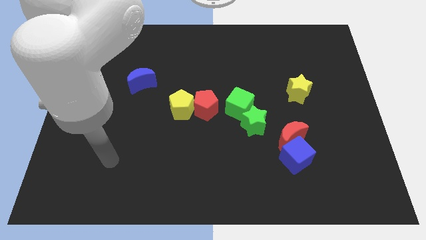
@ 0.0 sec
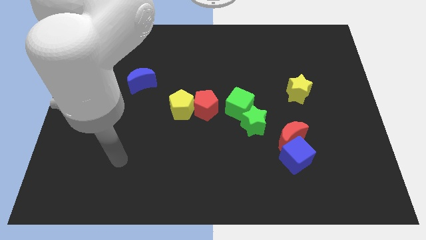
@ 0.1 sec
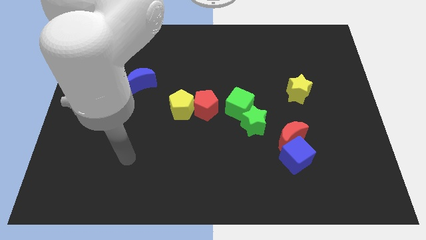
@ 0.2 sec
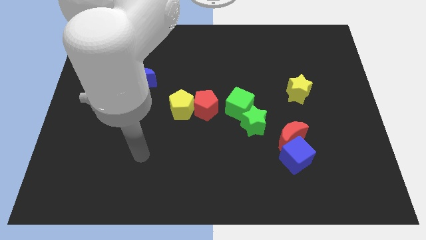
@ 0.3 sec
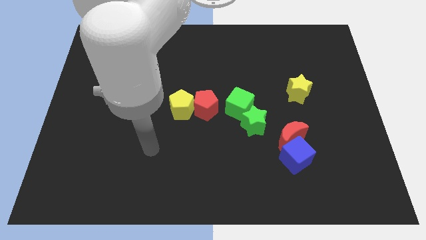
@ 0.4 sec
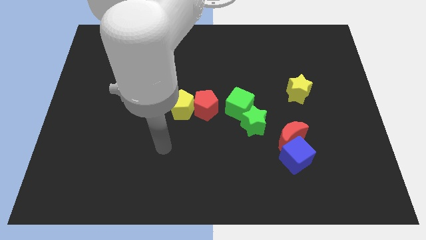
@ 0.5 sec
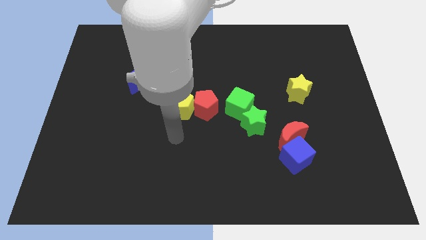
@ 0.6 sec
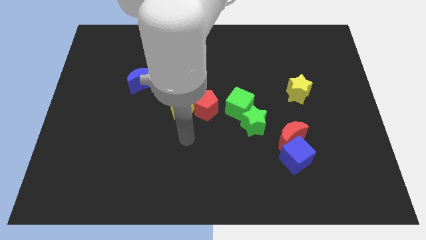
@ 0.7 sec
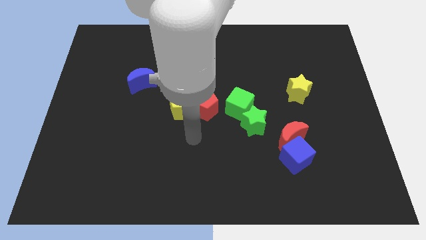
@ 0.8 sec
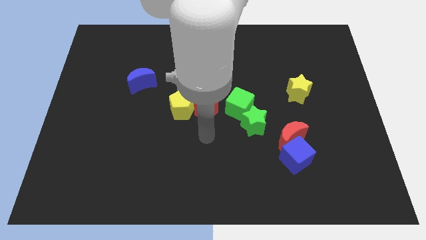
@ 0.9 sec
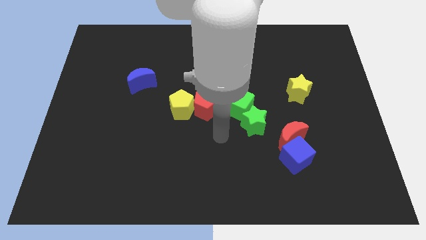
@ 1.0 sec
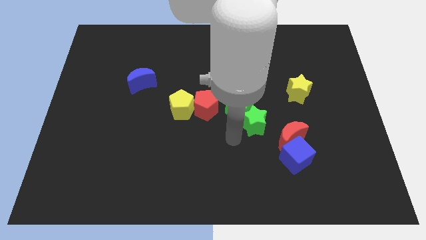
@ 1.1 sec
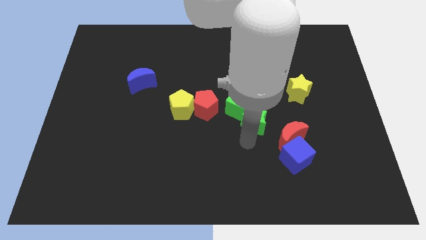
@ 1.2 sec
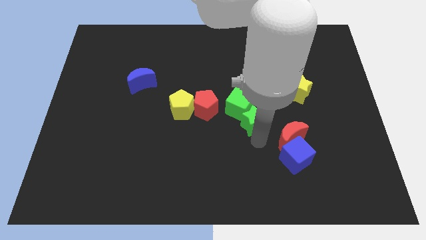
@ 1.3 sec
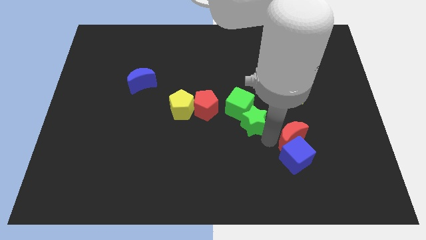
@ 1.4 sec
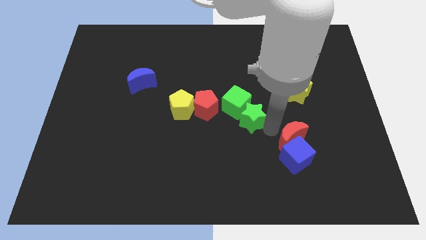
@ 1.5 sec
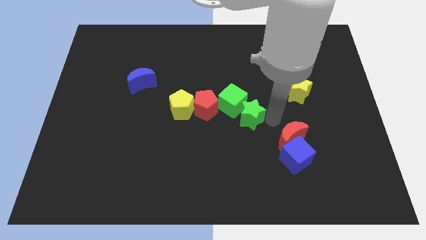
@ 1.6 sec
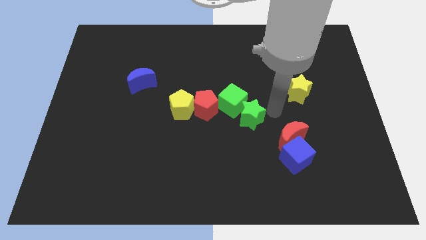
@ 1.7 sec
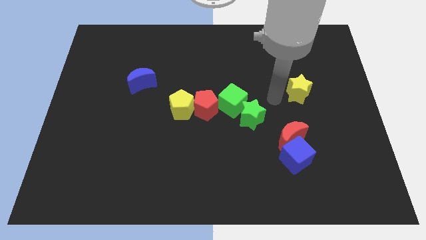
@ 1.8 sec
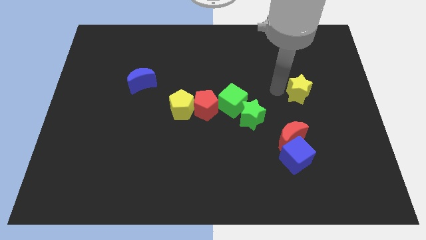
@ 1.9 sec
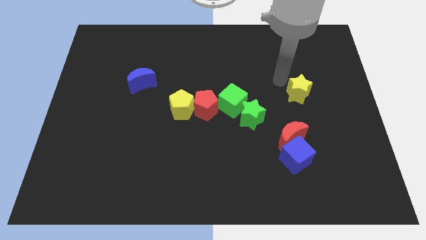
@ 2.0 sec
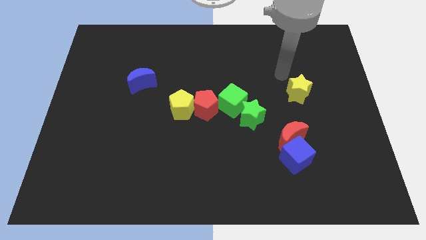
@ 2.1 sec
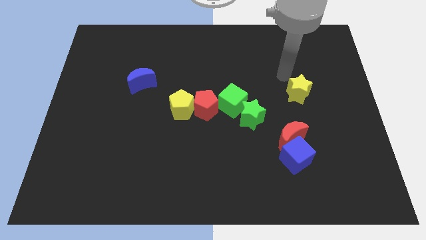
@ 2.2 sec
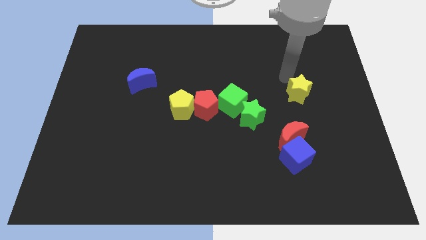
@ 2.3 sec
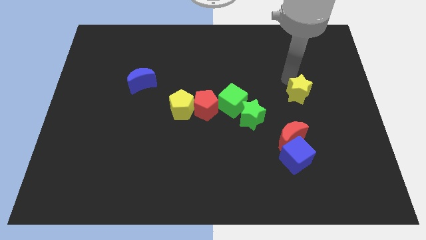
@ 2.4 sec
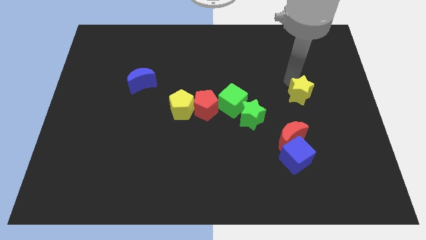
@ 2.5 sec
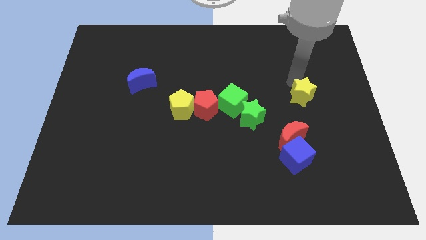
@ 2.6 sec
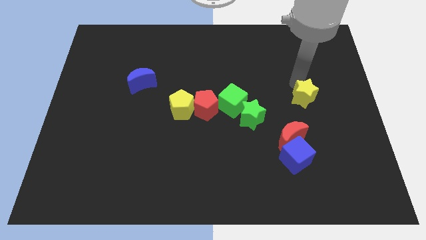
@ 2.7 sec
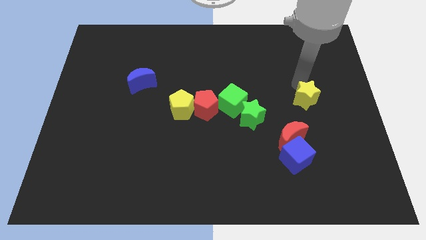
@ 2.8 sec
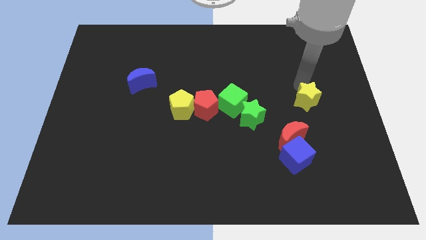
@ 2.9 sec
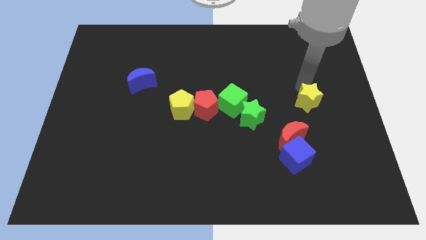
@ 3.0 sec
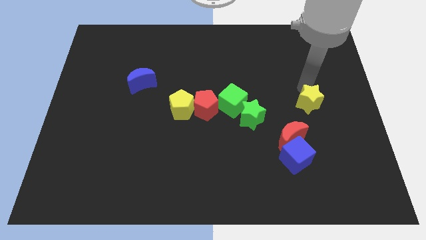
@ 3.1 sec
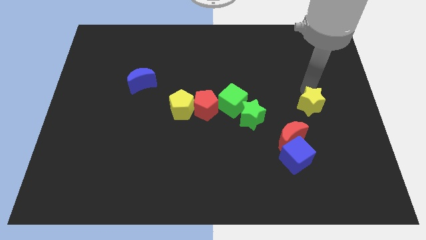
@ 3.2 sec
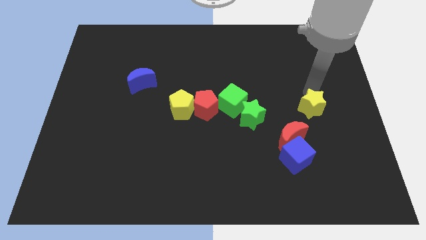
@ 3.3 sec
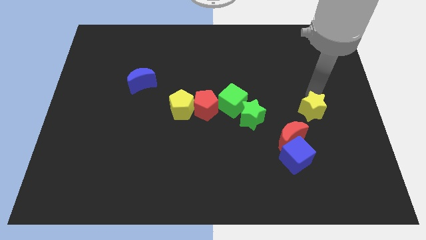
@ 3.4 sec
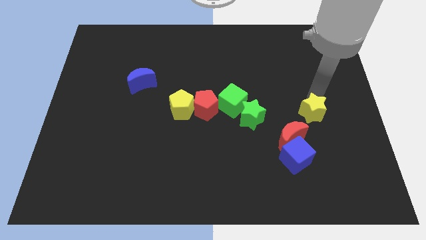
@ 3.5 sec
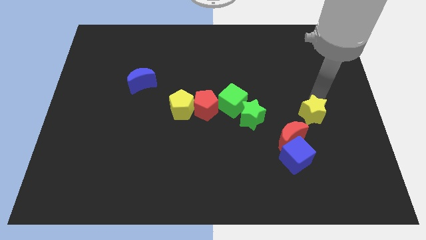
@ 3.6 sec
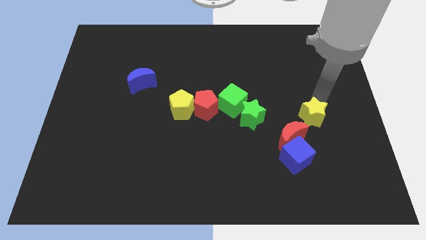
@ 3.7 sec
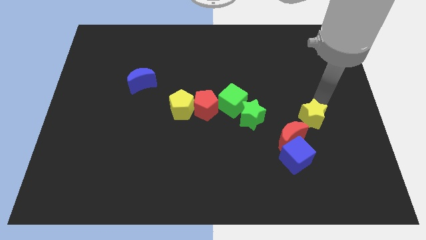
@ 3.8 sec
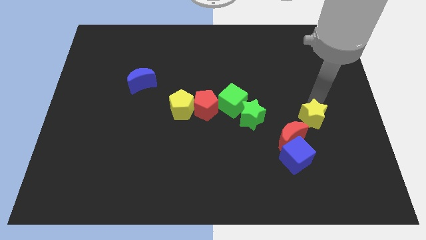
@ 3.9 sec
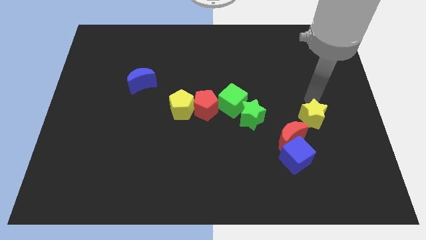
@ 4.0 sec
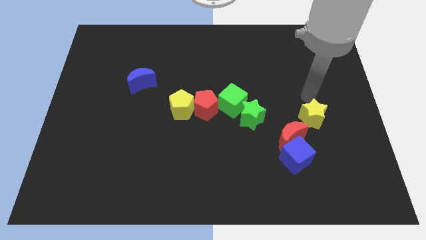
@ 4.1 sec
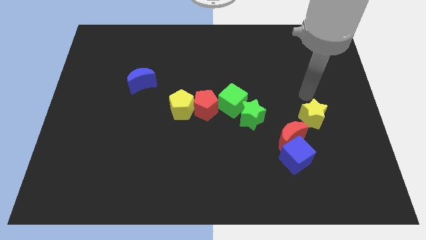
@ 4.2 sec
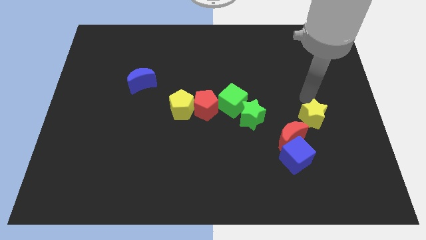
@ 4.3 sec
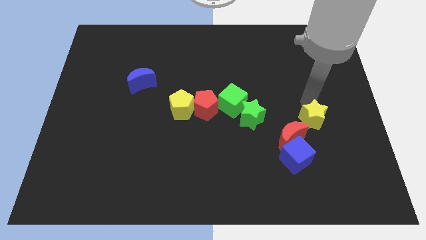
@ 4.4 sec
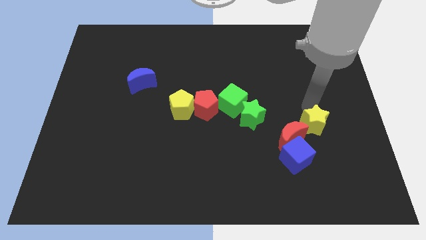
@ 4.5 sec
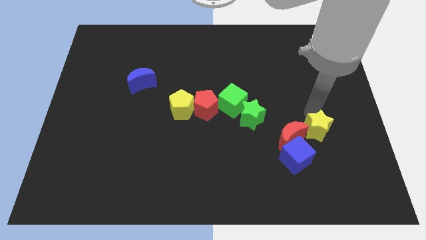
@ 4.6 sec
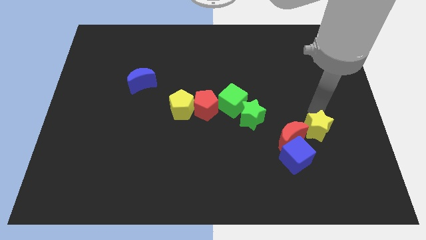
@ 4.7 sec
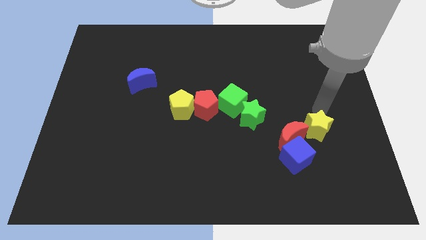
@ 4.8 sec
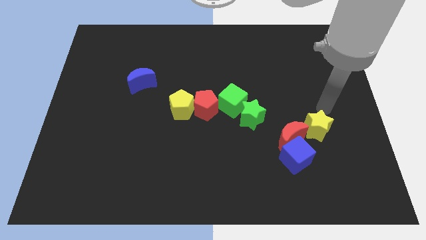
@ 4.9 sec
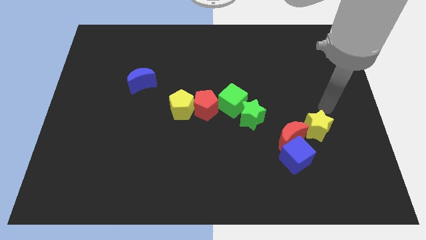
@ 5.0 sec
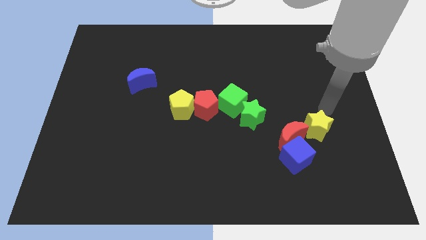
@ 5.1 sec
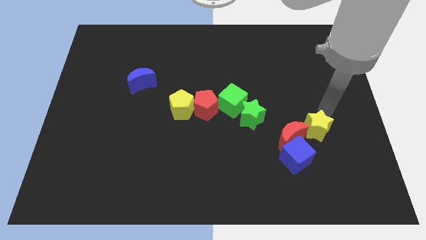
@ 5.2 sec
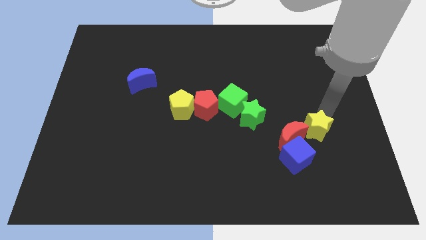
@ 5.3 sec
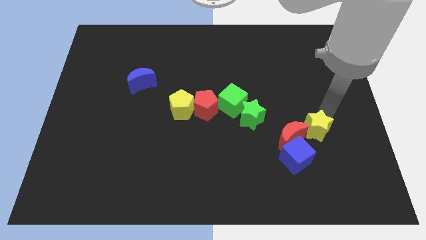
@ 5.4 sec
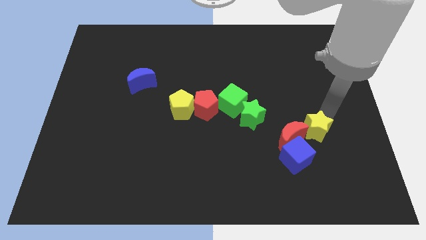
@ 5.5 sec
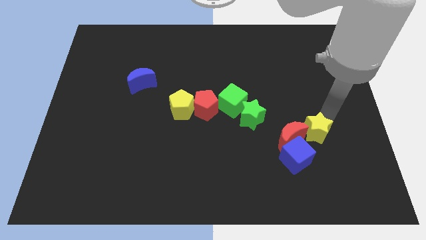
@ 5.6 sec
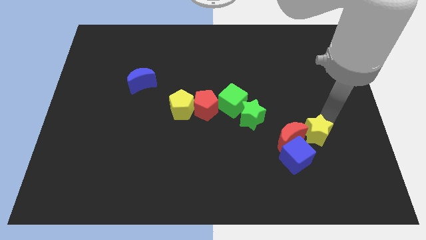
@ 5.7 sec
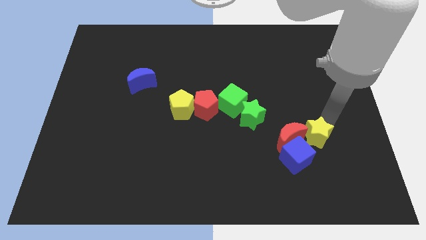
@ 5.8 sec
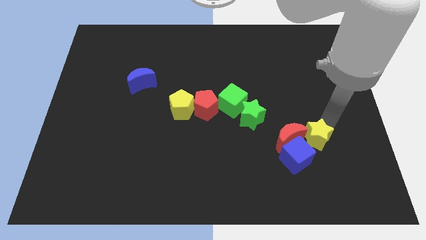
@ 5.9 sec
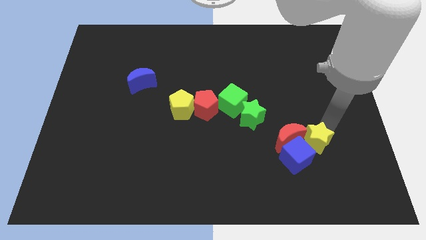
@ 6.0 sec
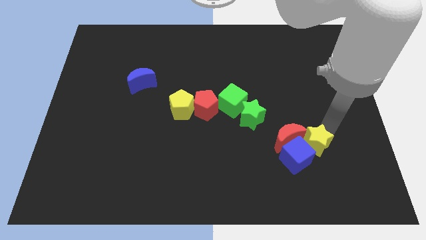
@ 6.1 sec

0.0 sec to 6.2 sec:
move the yellow star close to the blue cube

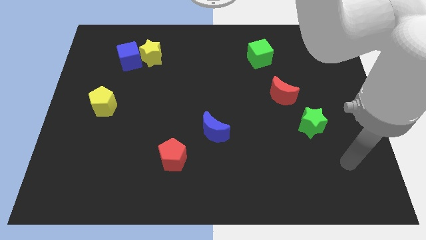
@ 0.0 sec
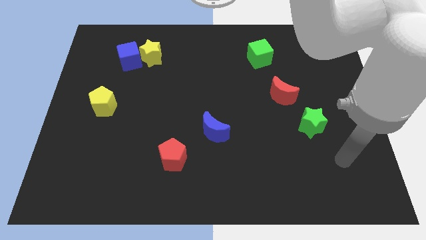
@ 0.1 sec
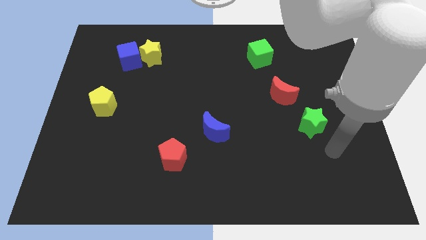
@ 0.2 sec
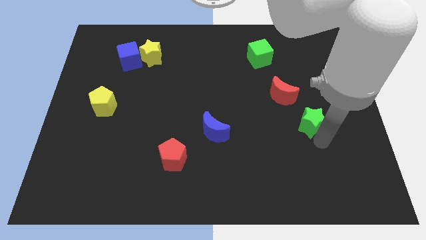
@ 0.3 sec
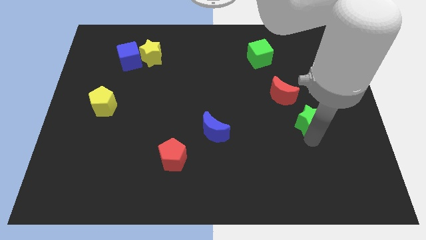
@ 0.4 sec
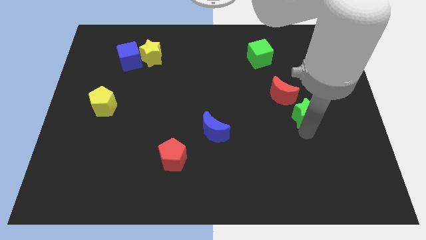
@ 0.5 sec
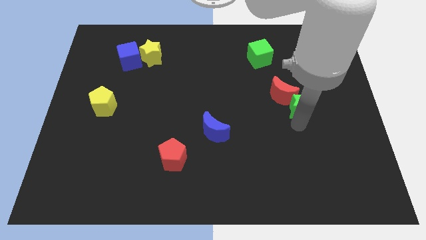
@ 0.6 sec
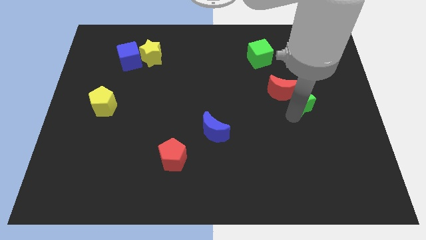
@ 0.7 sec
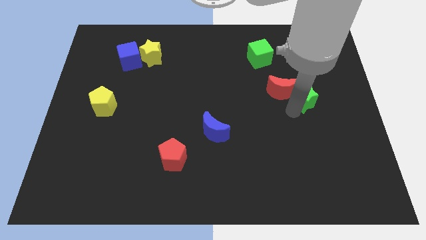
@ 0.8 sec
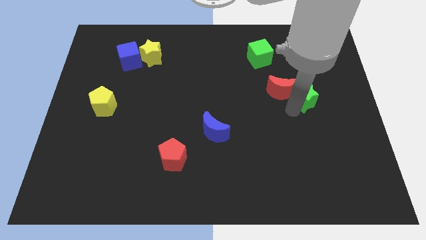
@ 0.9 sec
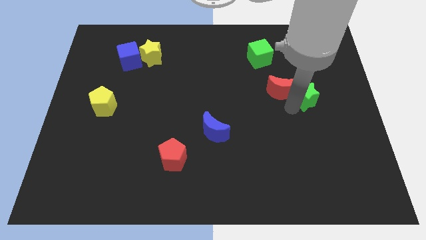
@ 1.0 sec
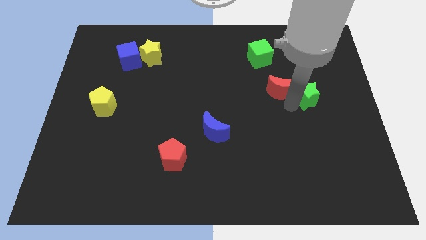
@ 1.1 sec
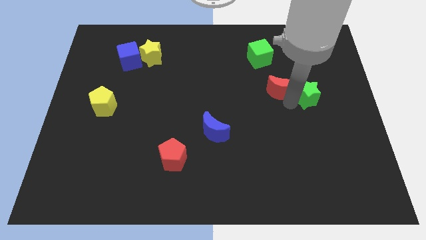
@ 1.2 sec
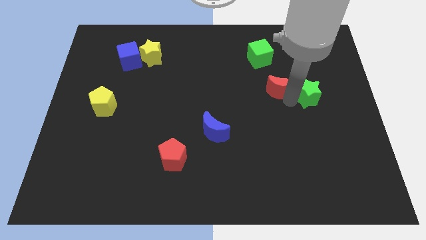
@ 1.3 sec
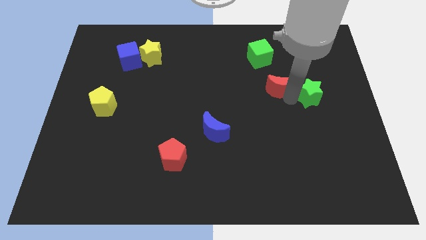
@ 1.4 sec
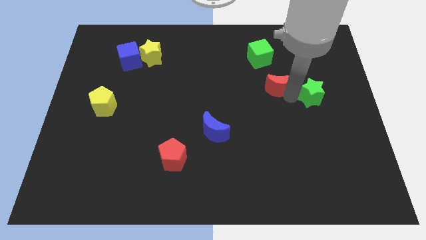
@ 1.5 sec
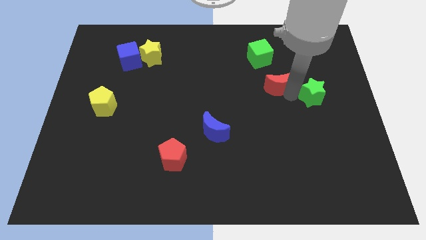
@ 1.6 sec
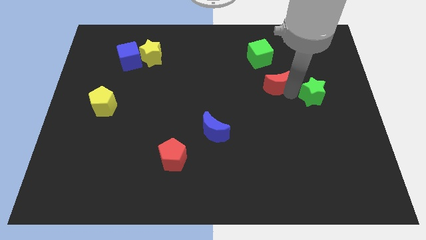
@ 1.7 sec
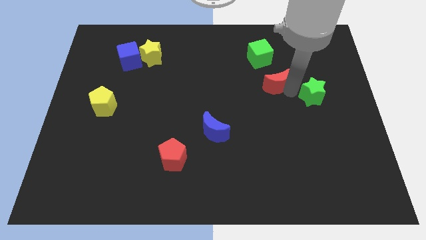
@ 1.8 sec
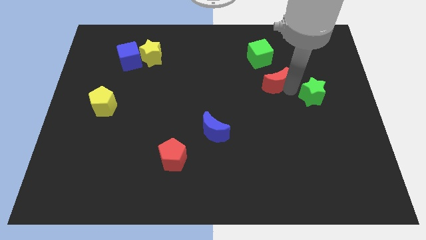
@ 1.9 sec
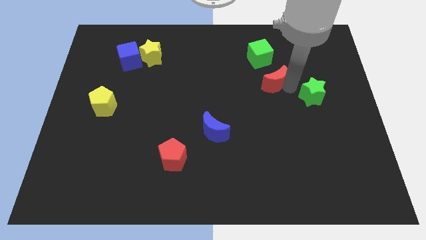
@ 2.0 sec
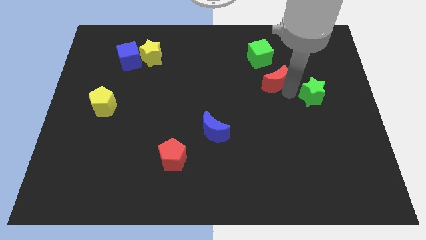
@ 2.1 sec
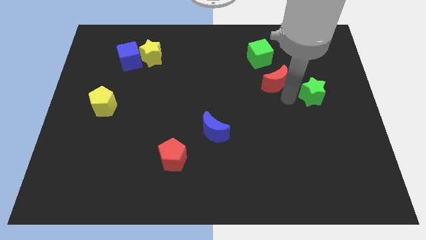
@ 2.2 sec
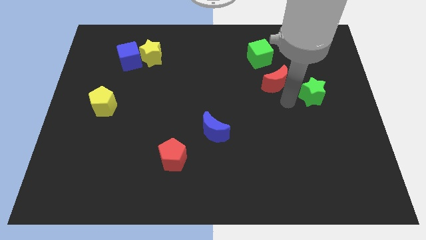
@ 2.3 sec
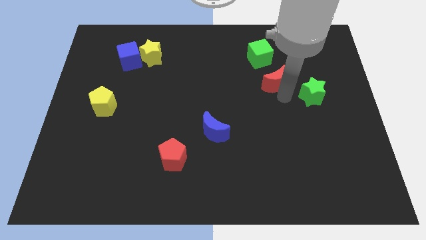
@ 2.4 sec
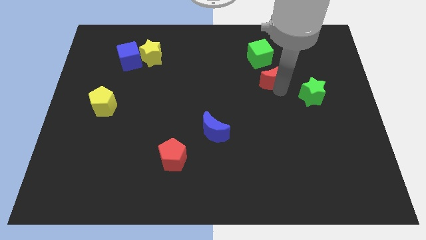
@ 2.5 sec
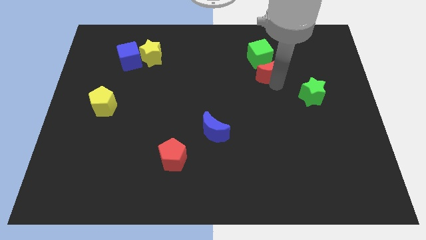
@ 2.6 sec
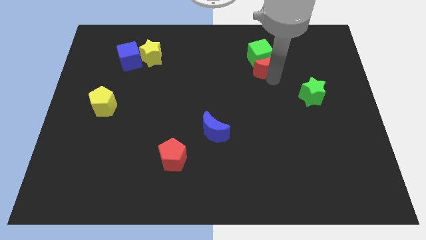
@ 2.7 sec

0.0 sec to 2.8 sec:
put the red moon close to the green cube
